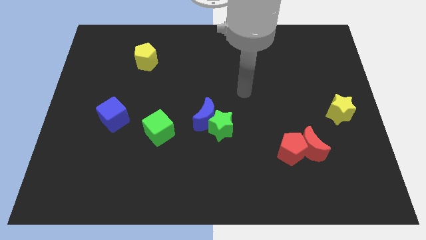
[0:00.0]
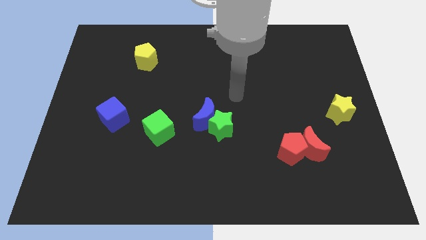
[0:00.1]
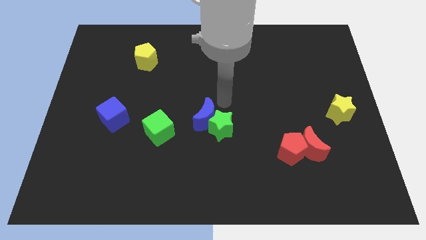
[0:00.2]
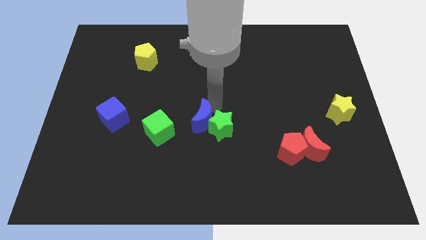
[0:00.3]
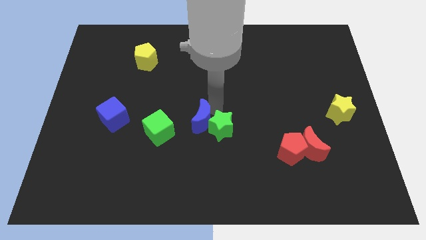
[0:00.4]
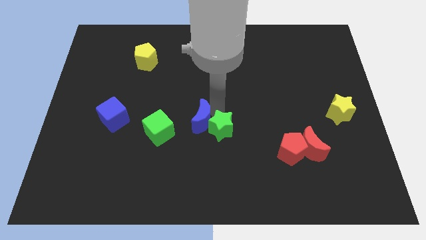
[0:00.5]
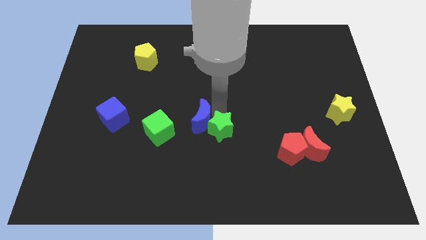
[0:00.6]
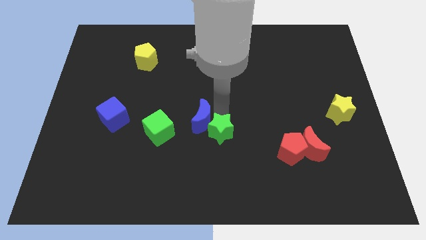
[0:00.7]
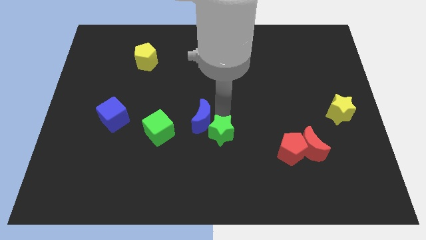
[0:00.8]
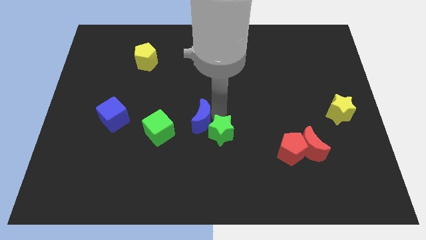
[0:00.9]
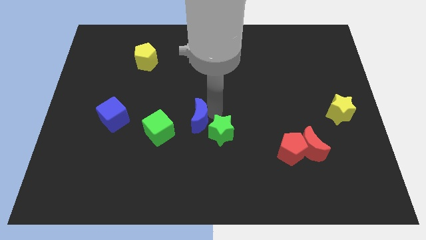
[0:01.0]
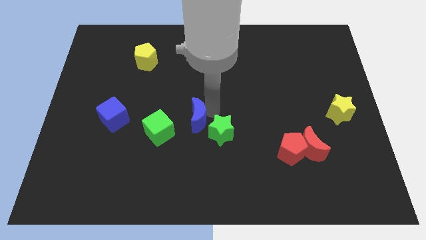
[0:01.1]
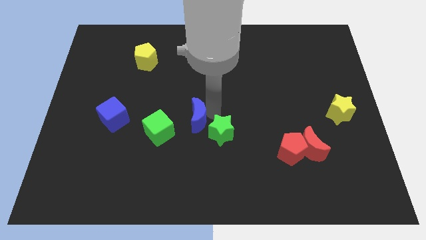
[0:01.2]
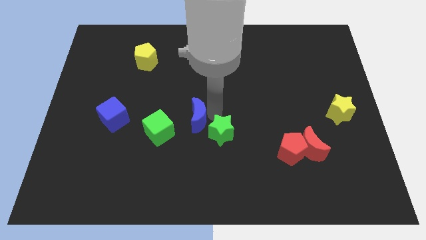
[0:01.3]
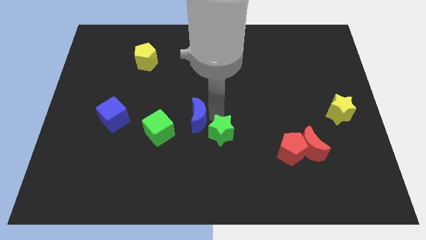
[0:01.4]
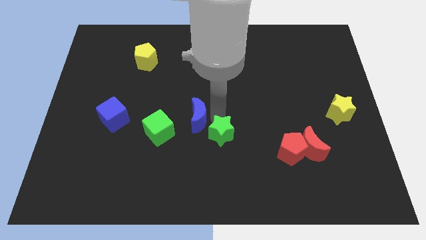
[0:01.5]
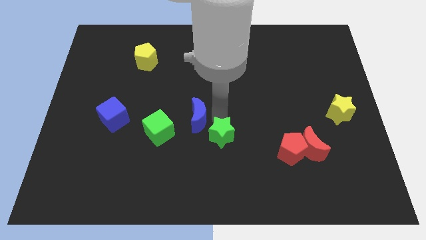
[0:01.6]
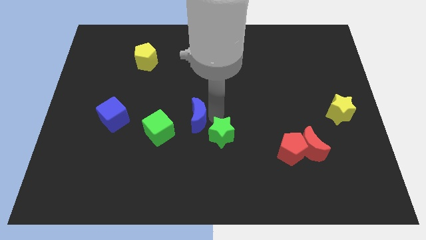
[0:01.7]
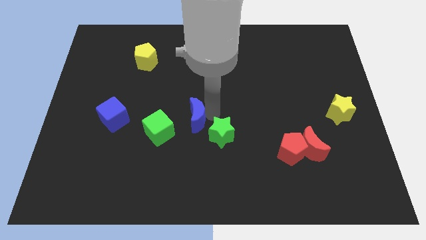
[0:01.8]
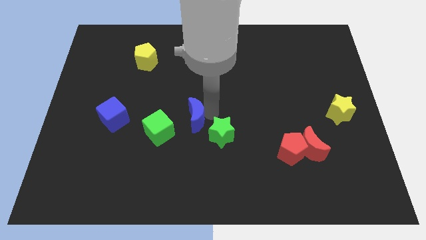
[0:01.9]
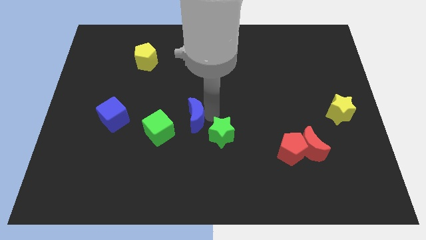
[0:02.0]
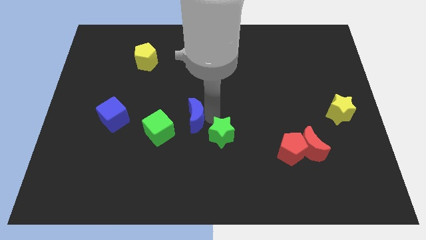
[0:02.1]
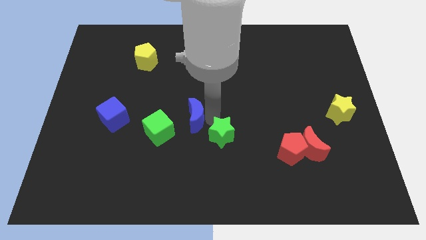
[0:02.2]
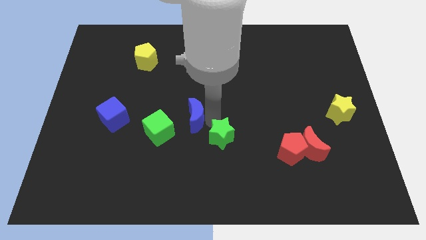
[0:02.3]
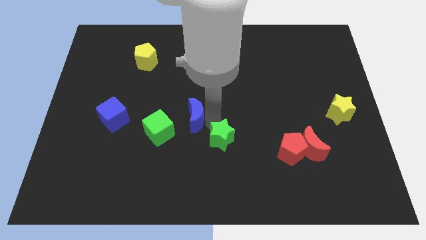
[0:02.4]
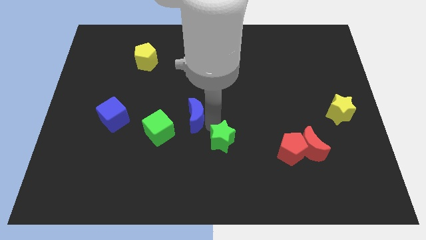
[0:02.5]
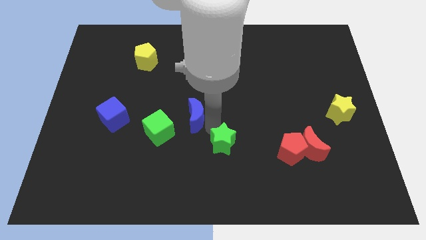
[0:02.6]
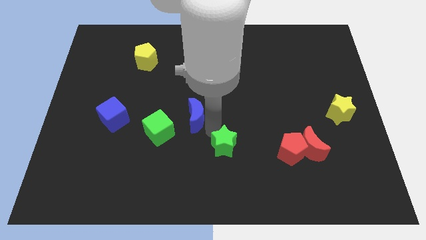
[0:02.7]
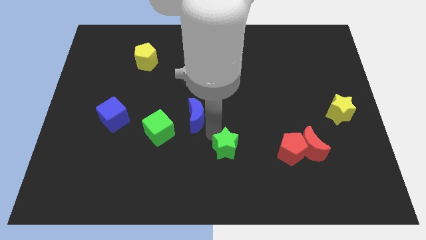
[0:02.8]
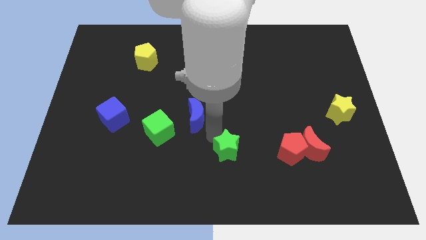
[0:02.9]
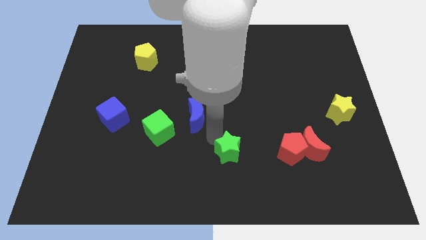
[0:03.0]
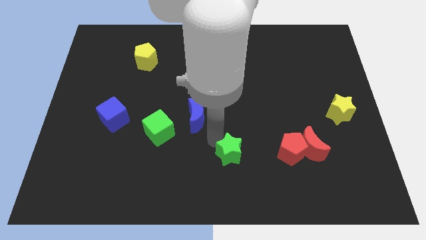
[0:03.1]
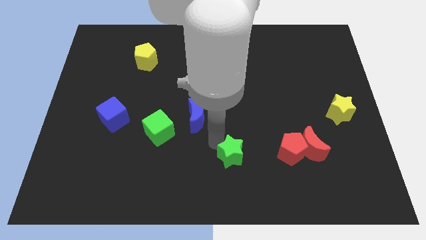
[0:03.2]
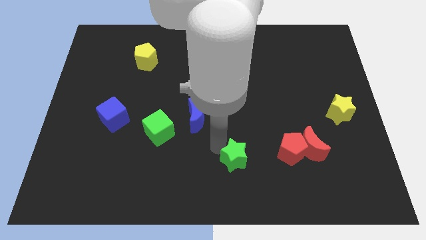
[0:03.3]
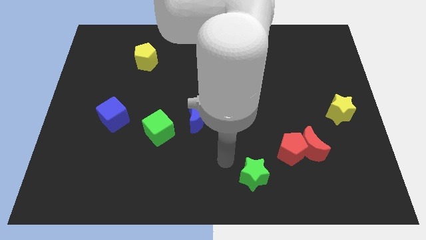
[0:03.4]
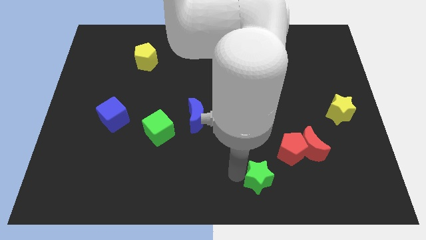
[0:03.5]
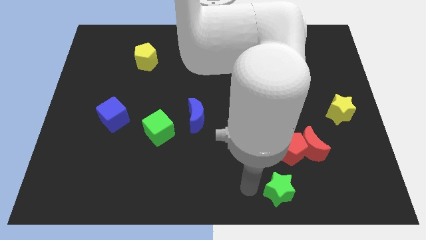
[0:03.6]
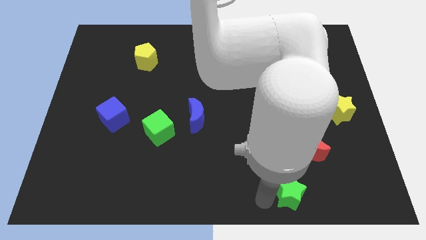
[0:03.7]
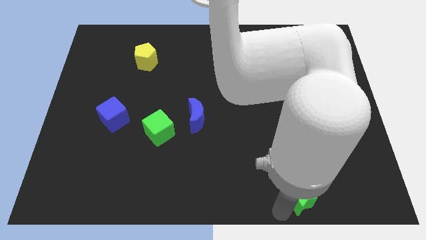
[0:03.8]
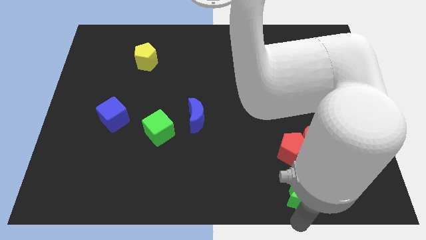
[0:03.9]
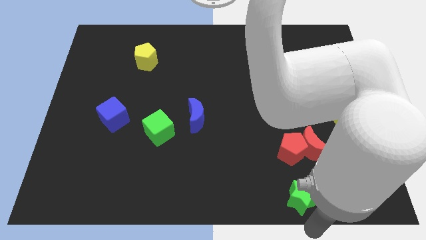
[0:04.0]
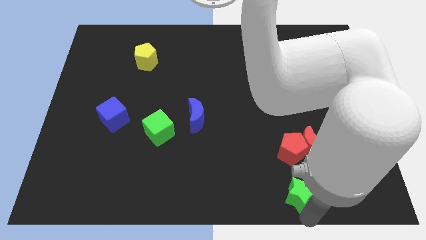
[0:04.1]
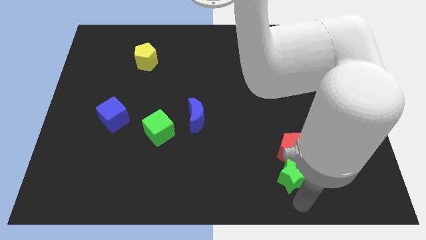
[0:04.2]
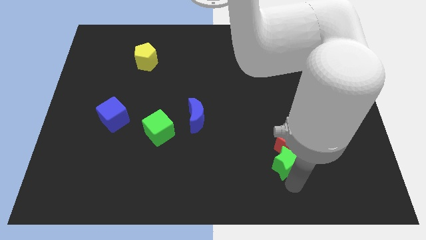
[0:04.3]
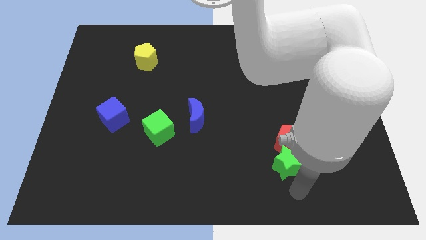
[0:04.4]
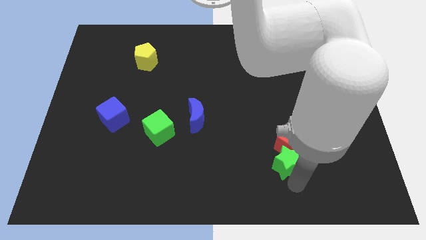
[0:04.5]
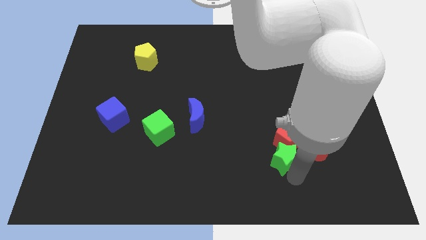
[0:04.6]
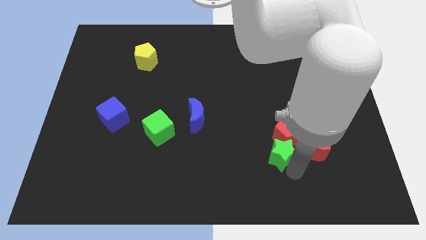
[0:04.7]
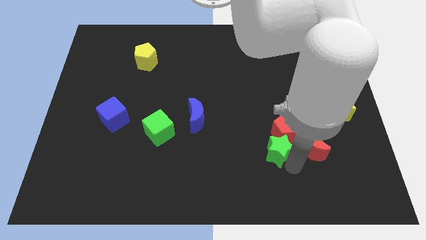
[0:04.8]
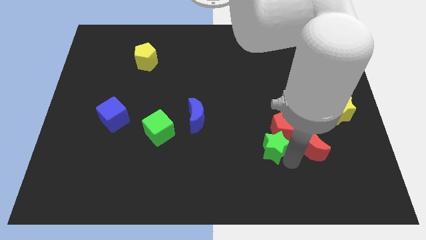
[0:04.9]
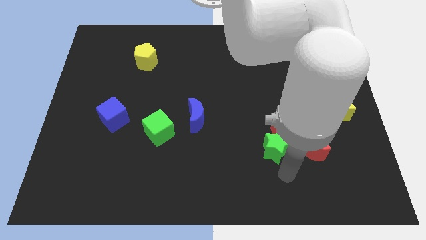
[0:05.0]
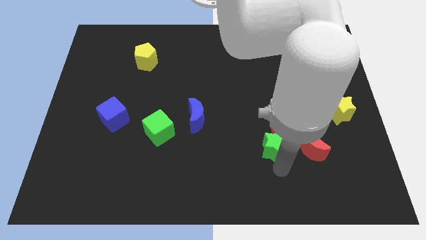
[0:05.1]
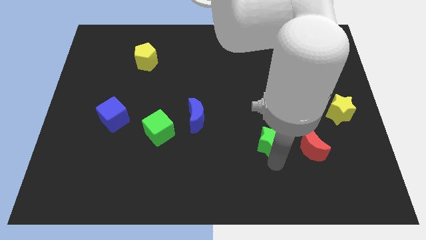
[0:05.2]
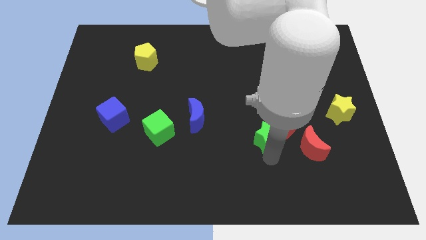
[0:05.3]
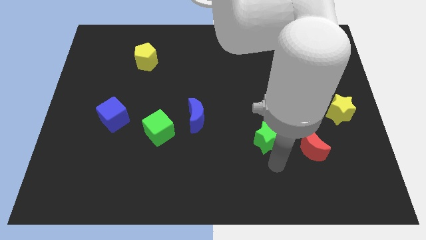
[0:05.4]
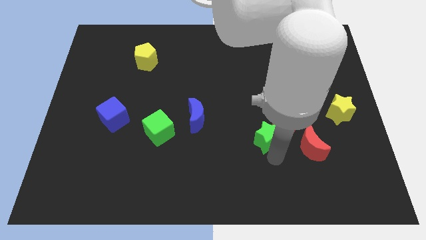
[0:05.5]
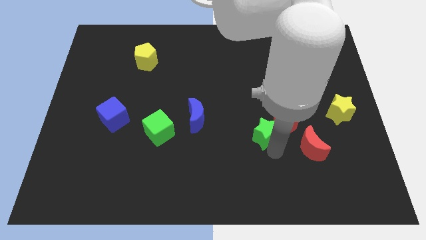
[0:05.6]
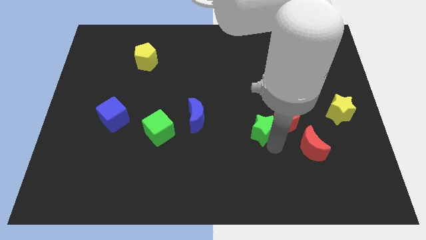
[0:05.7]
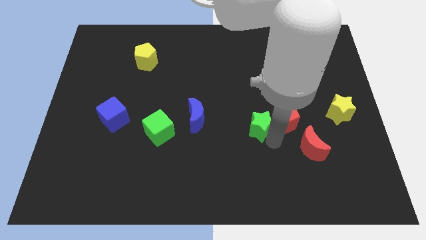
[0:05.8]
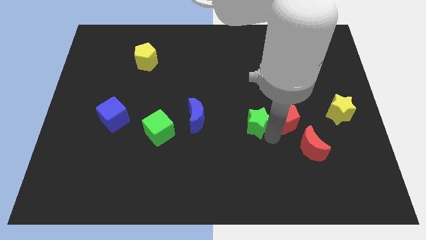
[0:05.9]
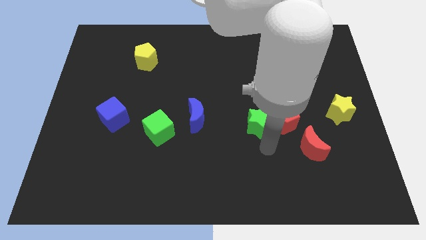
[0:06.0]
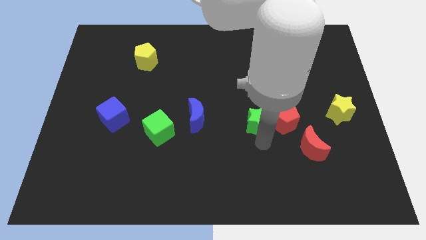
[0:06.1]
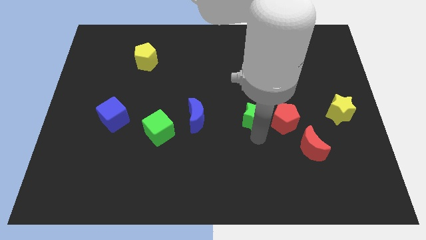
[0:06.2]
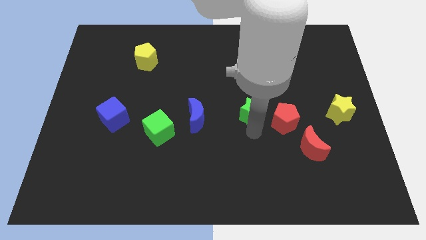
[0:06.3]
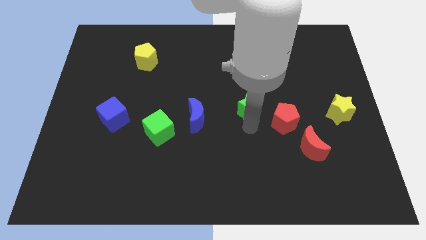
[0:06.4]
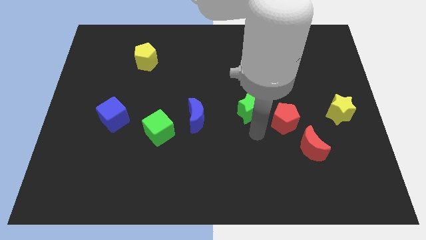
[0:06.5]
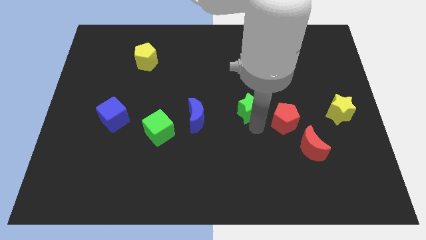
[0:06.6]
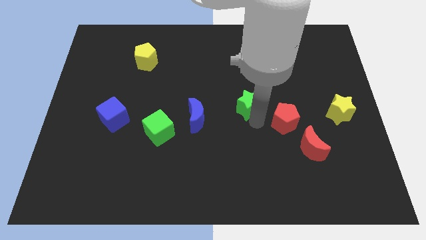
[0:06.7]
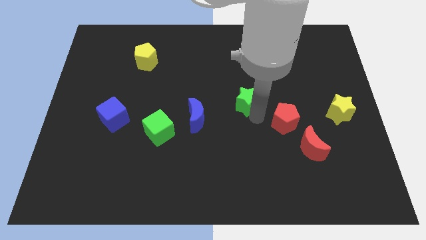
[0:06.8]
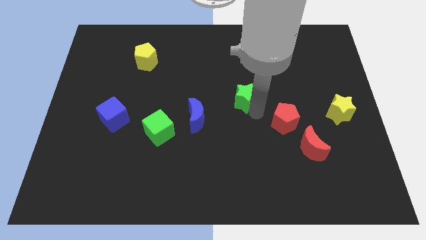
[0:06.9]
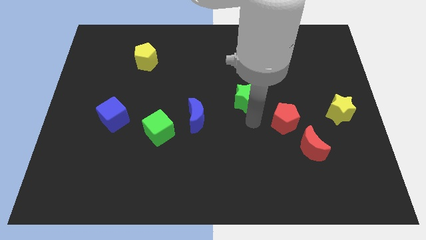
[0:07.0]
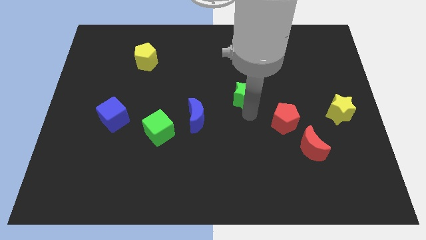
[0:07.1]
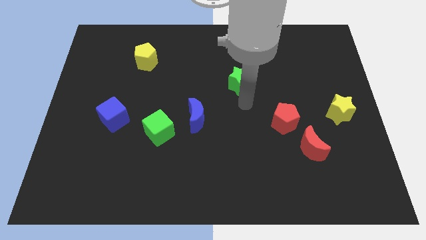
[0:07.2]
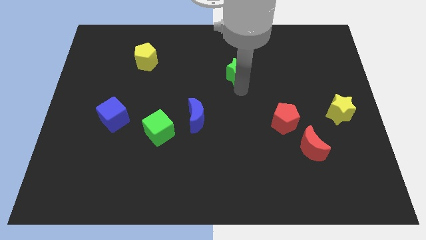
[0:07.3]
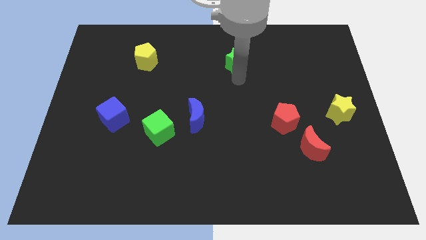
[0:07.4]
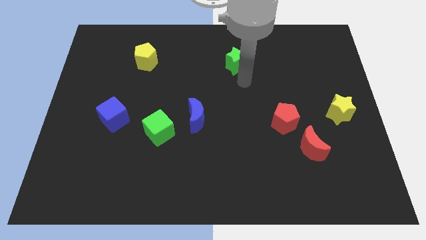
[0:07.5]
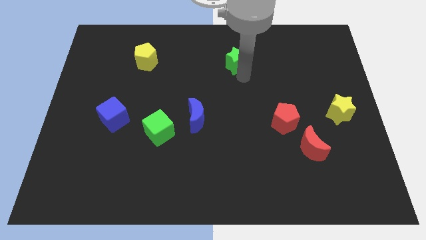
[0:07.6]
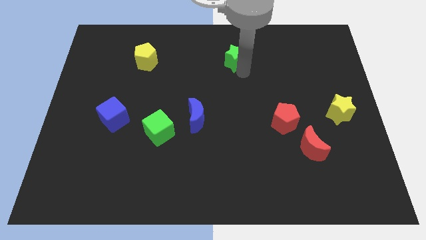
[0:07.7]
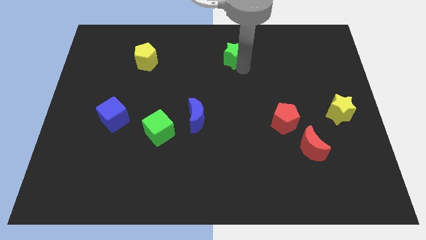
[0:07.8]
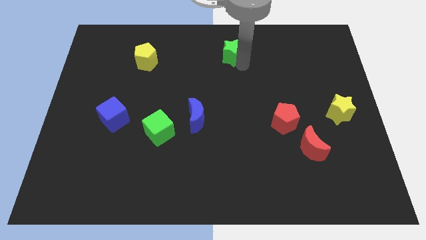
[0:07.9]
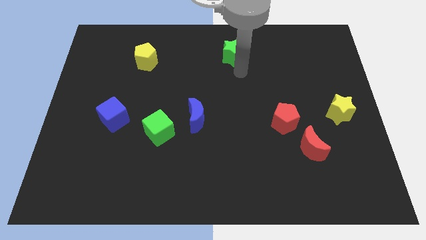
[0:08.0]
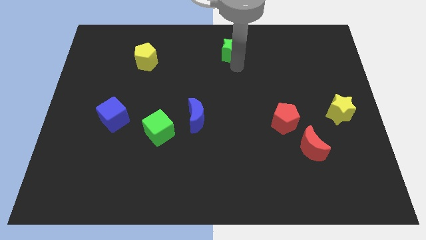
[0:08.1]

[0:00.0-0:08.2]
move the green star to the top
